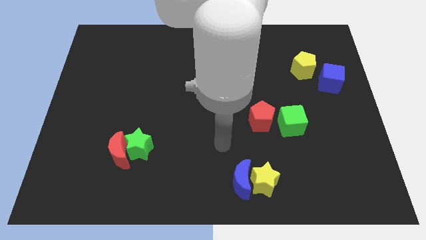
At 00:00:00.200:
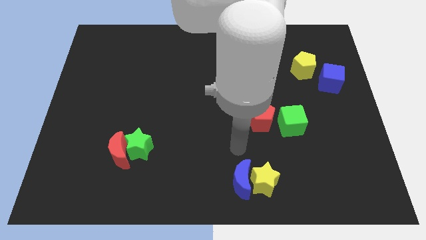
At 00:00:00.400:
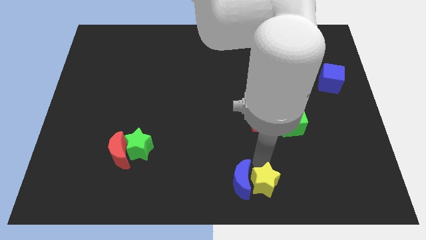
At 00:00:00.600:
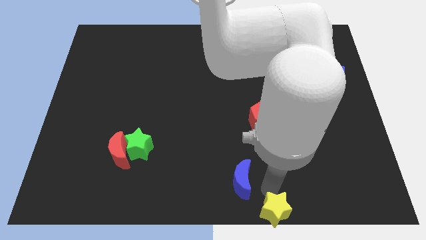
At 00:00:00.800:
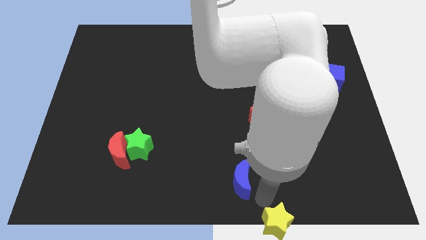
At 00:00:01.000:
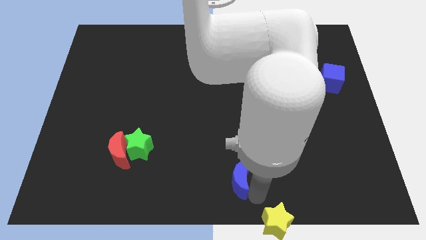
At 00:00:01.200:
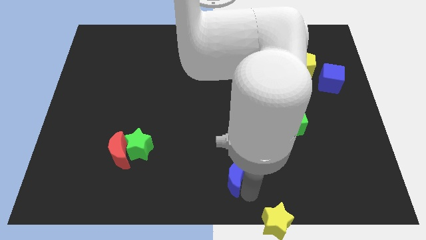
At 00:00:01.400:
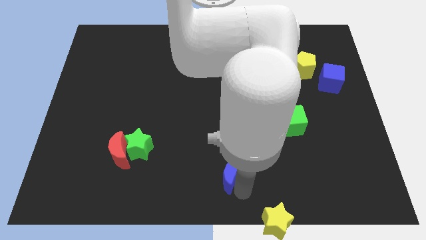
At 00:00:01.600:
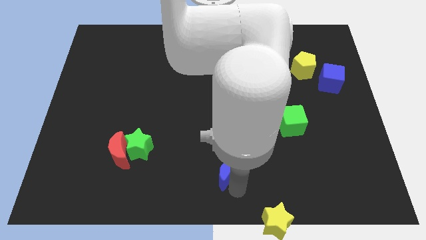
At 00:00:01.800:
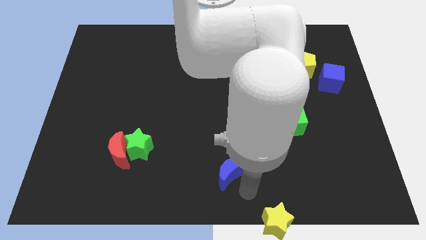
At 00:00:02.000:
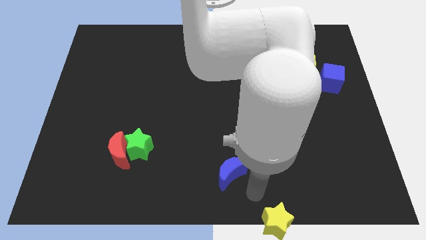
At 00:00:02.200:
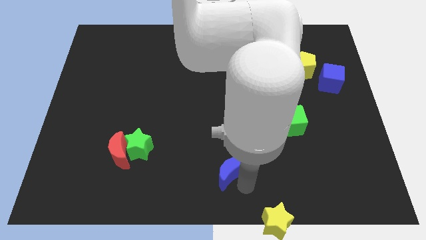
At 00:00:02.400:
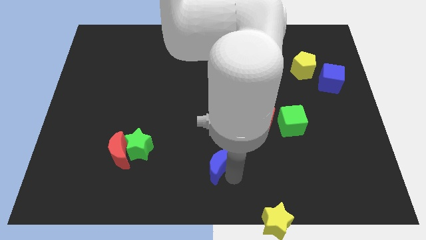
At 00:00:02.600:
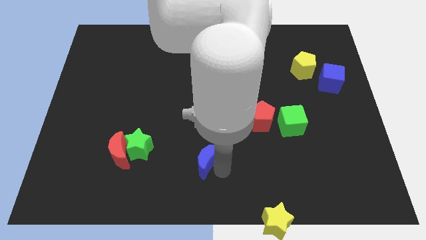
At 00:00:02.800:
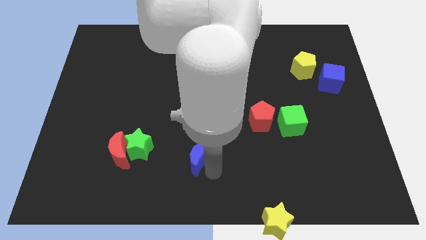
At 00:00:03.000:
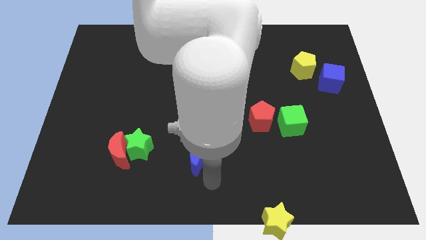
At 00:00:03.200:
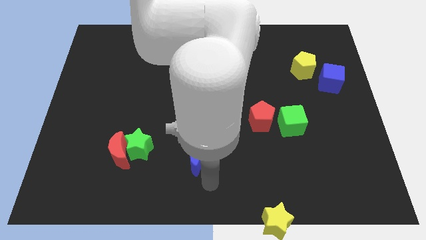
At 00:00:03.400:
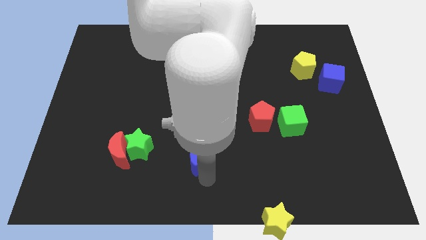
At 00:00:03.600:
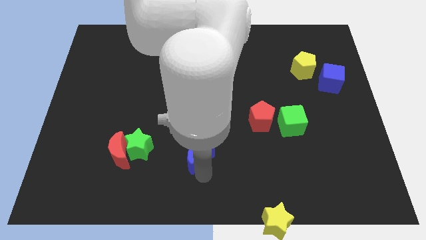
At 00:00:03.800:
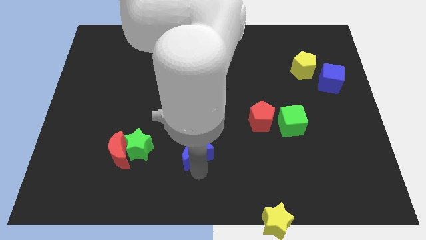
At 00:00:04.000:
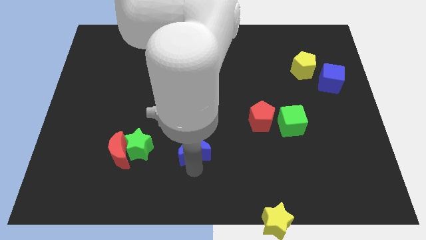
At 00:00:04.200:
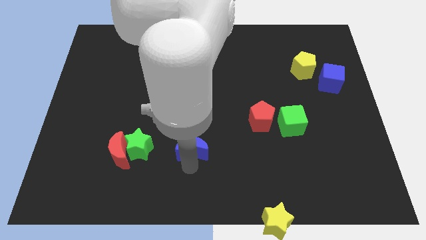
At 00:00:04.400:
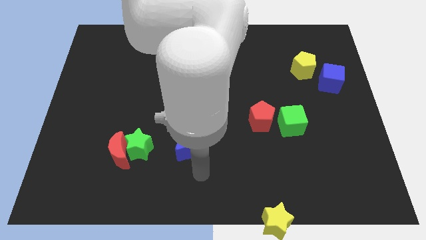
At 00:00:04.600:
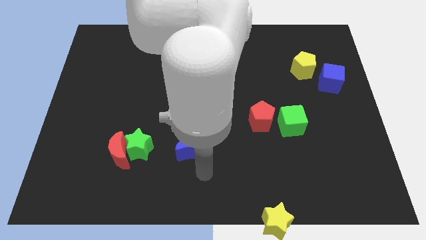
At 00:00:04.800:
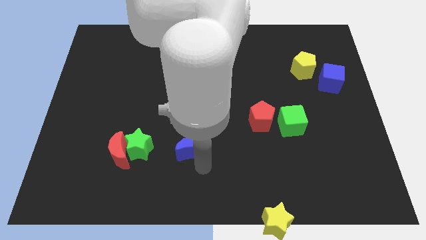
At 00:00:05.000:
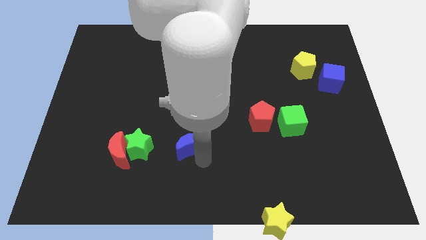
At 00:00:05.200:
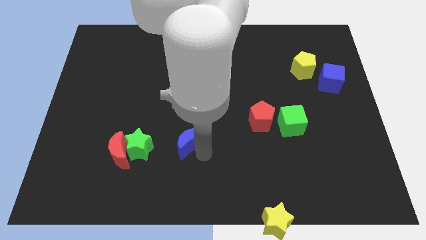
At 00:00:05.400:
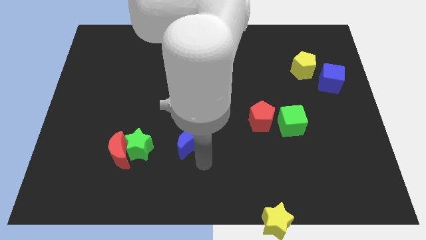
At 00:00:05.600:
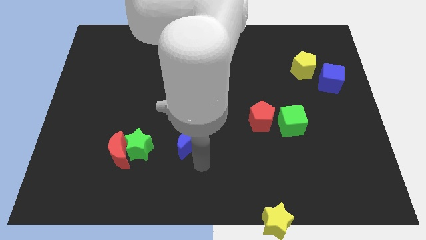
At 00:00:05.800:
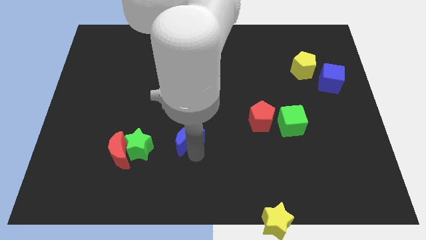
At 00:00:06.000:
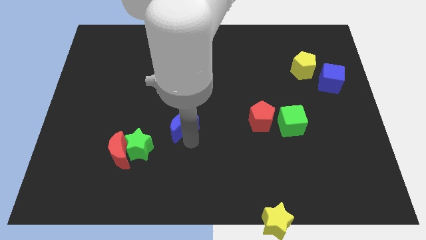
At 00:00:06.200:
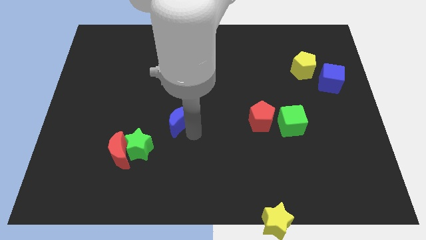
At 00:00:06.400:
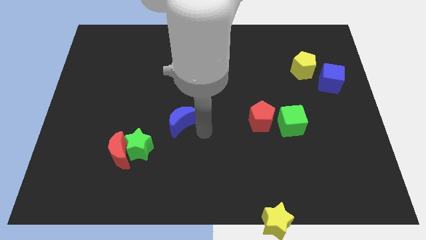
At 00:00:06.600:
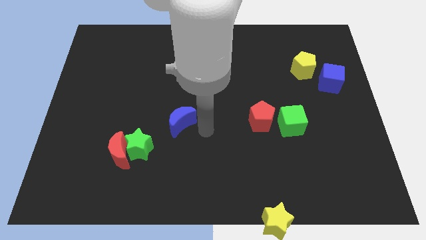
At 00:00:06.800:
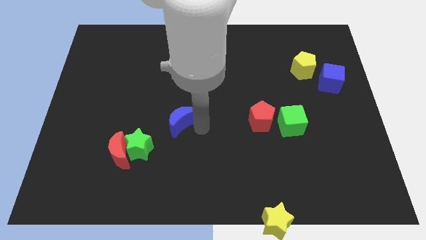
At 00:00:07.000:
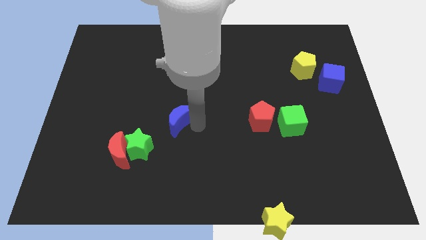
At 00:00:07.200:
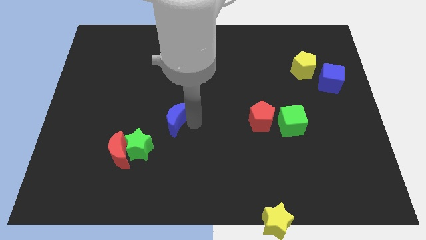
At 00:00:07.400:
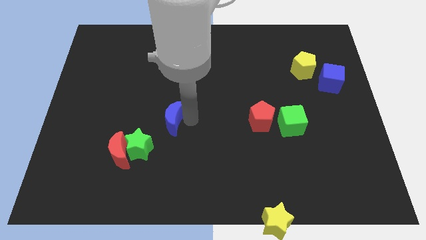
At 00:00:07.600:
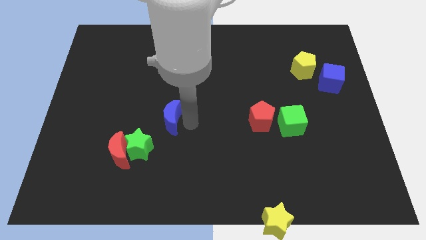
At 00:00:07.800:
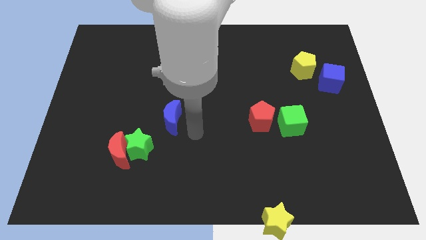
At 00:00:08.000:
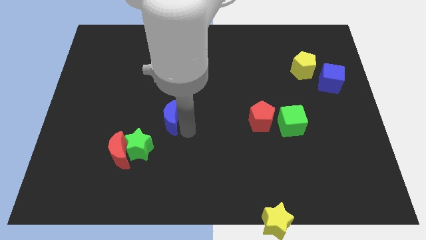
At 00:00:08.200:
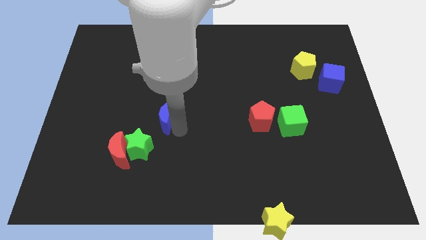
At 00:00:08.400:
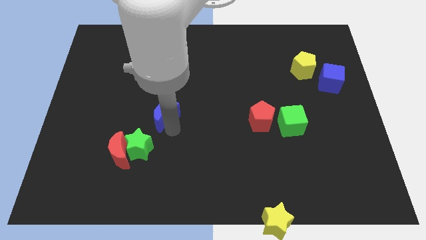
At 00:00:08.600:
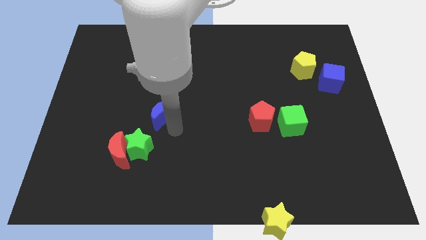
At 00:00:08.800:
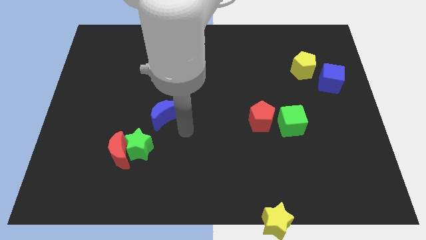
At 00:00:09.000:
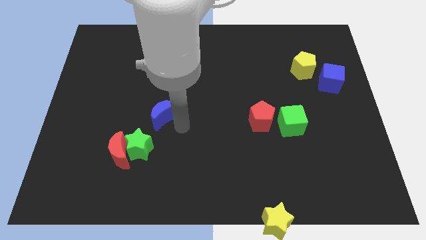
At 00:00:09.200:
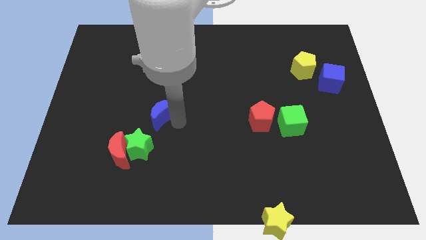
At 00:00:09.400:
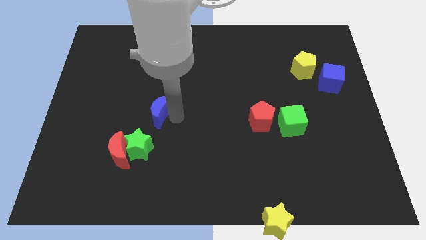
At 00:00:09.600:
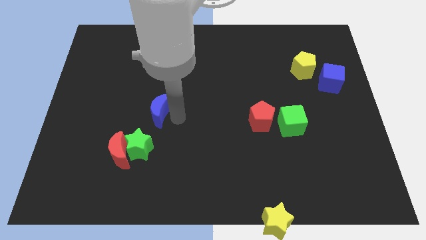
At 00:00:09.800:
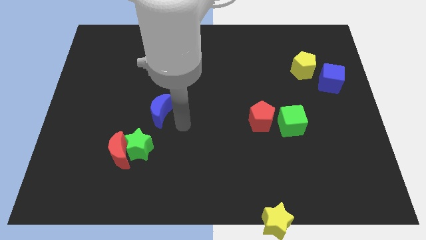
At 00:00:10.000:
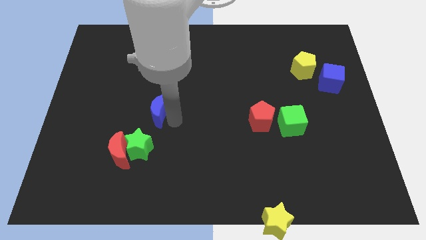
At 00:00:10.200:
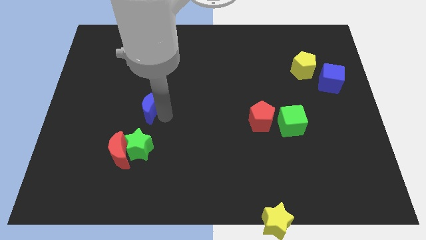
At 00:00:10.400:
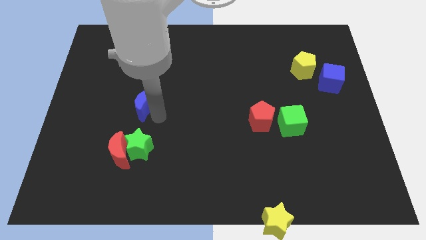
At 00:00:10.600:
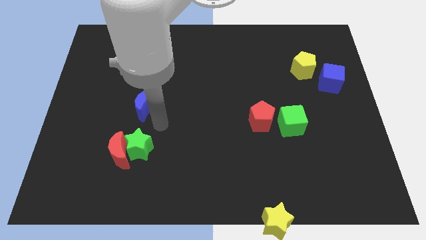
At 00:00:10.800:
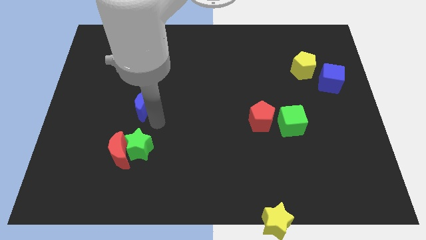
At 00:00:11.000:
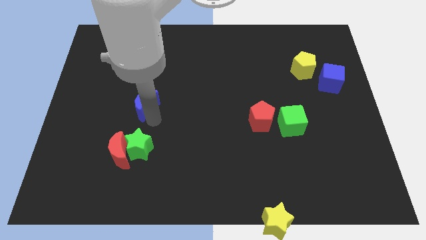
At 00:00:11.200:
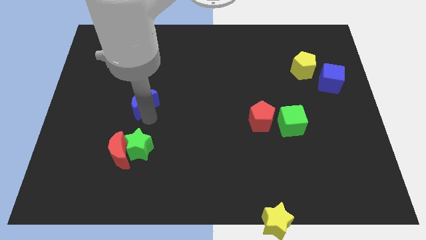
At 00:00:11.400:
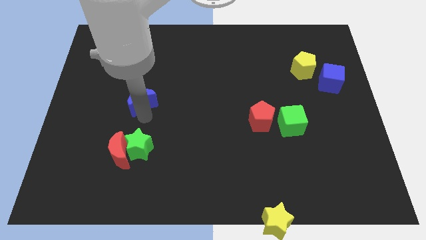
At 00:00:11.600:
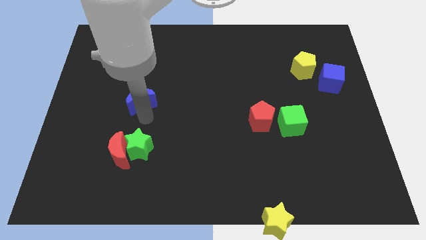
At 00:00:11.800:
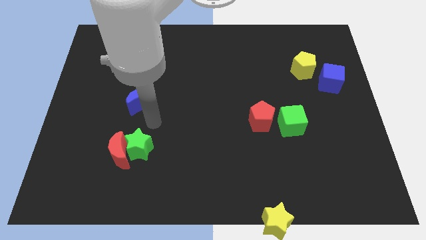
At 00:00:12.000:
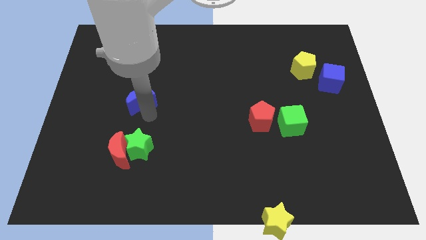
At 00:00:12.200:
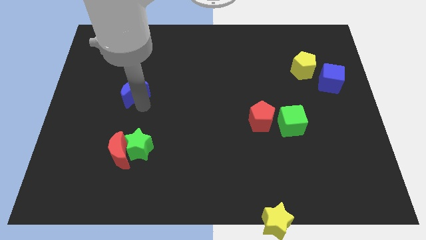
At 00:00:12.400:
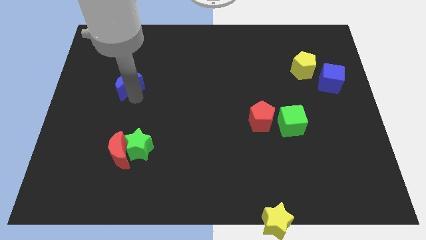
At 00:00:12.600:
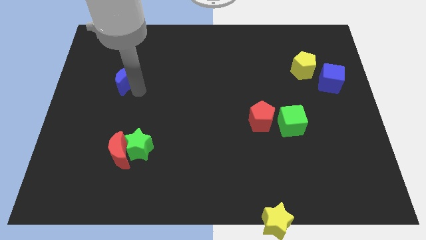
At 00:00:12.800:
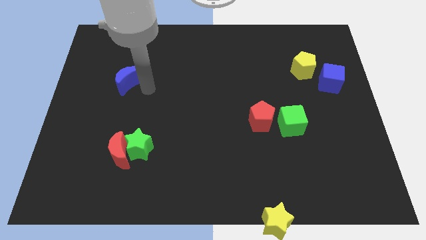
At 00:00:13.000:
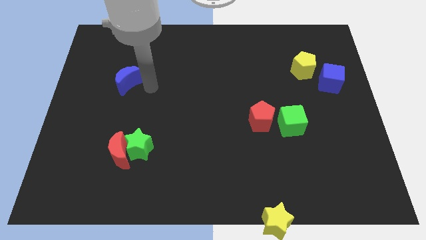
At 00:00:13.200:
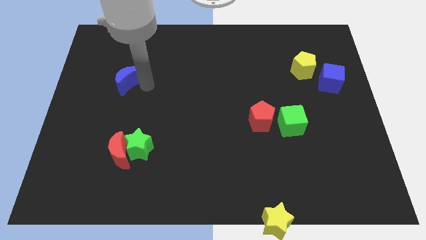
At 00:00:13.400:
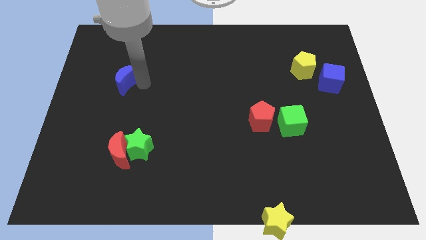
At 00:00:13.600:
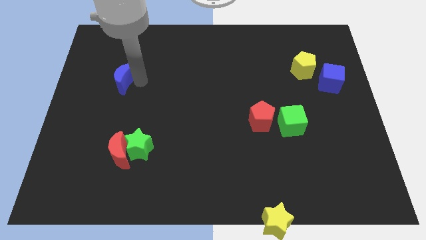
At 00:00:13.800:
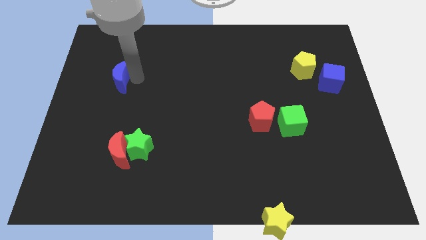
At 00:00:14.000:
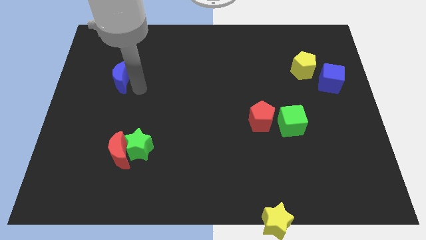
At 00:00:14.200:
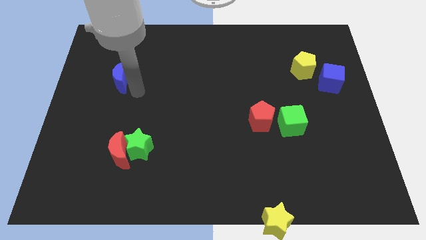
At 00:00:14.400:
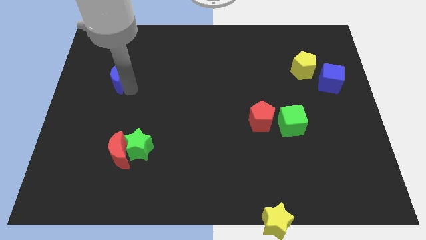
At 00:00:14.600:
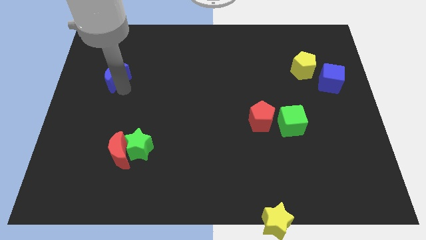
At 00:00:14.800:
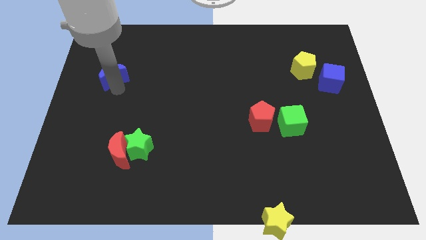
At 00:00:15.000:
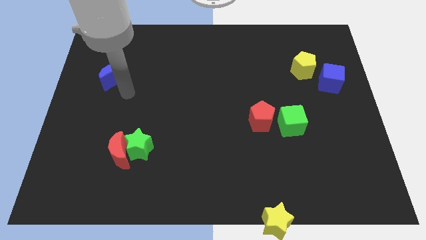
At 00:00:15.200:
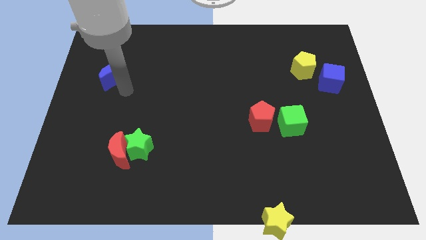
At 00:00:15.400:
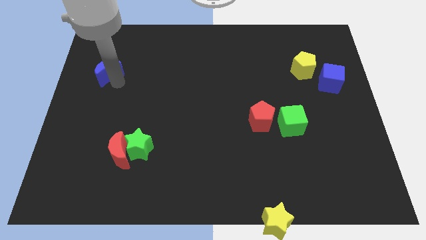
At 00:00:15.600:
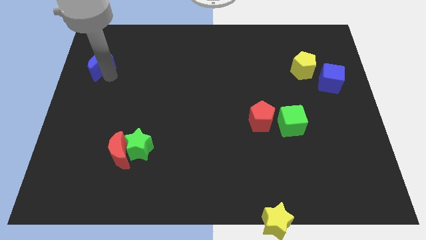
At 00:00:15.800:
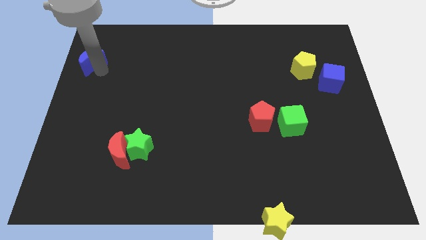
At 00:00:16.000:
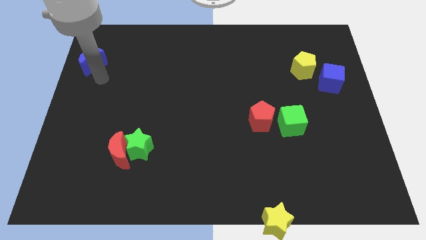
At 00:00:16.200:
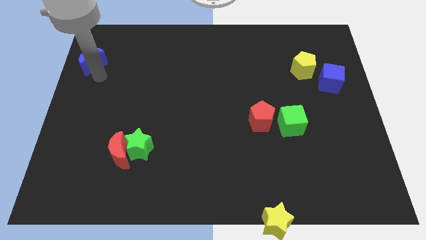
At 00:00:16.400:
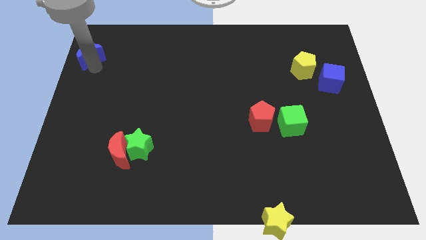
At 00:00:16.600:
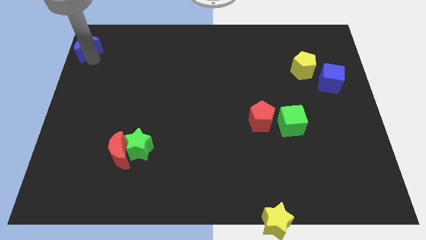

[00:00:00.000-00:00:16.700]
slide the blue moon to the upper left corner

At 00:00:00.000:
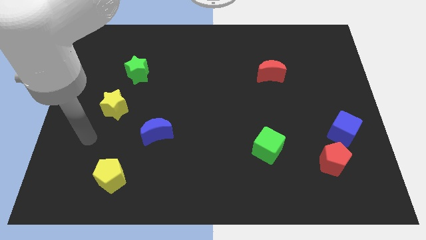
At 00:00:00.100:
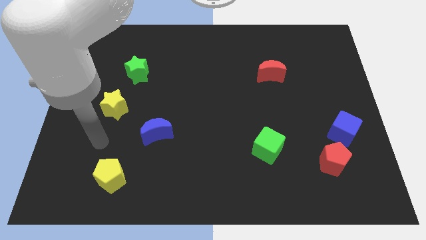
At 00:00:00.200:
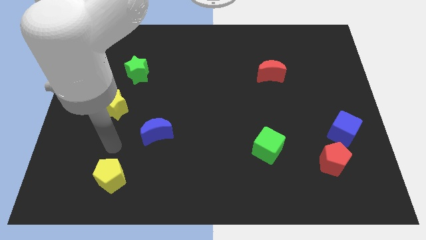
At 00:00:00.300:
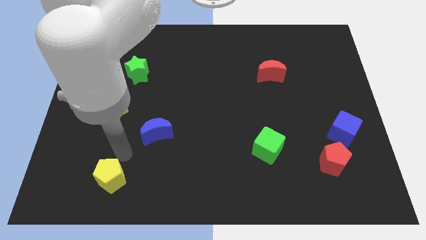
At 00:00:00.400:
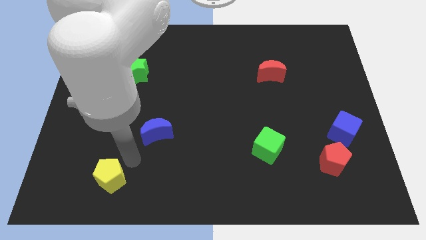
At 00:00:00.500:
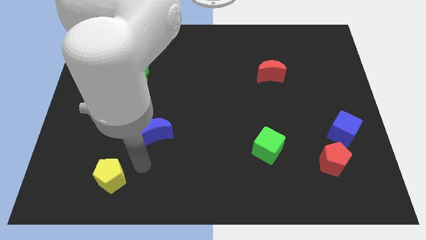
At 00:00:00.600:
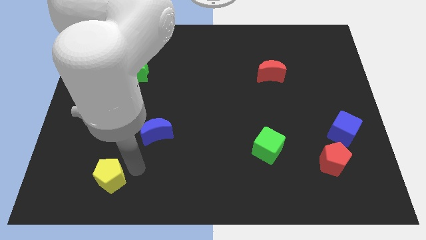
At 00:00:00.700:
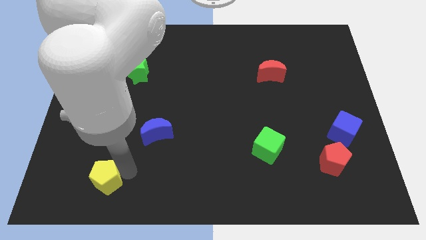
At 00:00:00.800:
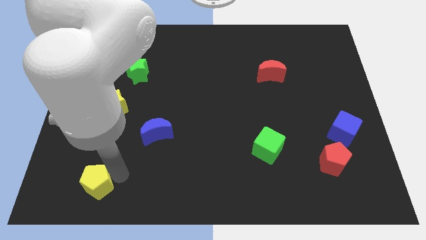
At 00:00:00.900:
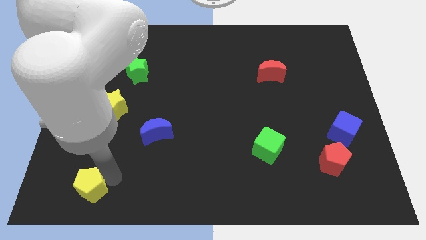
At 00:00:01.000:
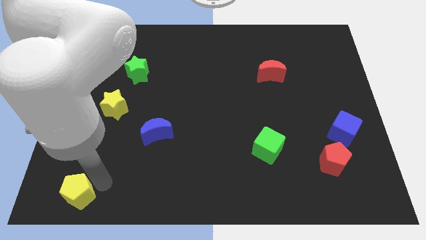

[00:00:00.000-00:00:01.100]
move the yellow pentagon to the bottom left of the board
